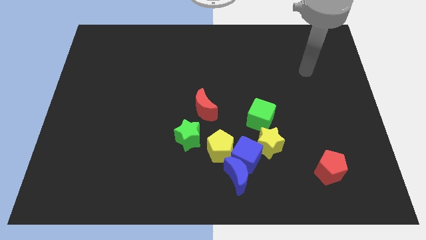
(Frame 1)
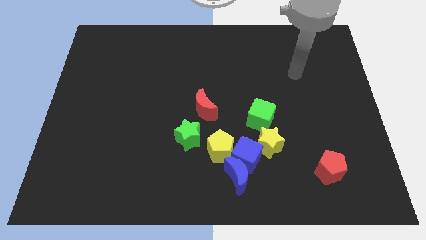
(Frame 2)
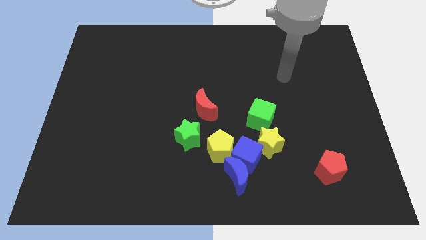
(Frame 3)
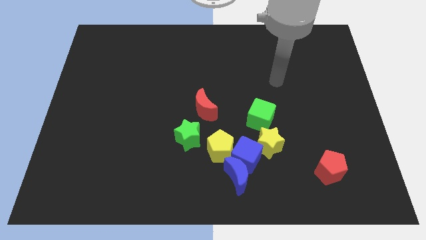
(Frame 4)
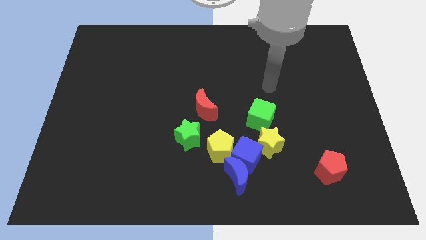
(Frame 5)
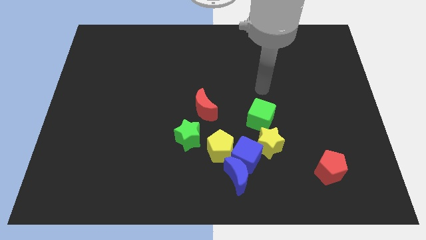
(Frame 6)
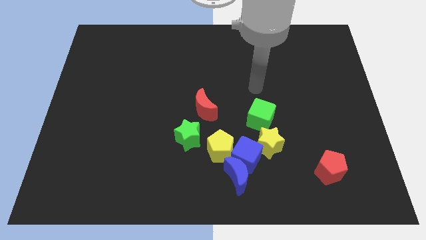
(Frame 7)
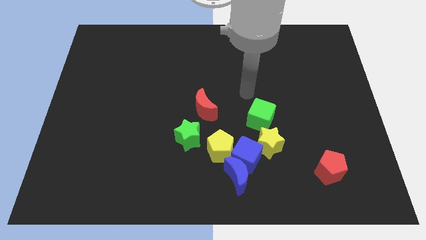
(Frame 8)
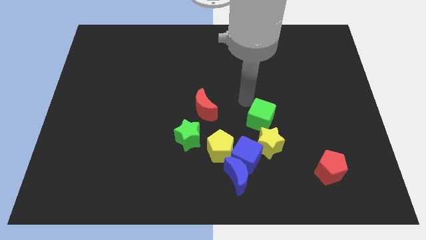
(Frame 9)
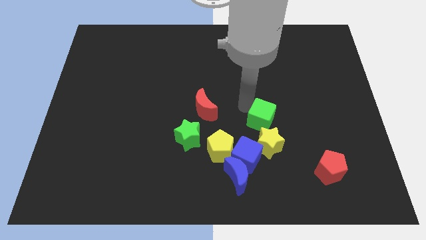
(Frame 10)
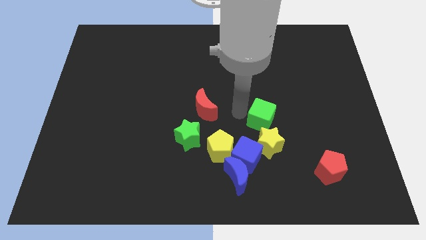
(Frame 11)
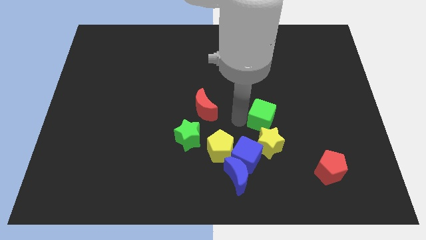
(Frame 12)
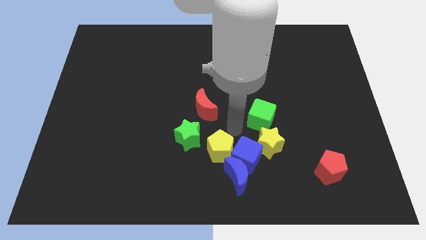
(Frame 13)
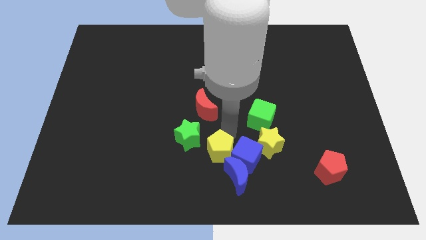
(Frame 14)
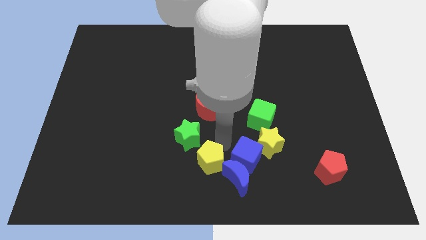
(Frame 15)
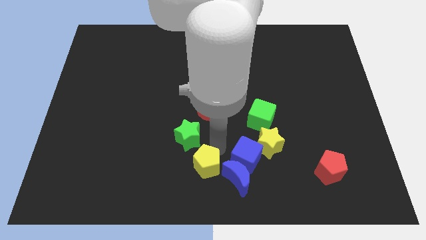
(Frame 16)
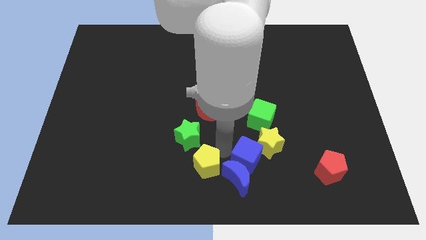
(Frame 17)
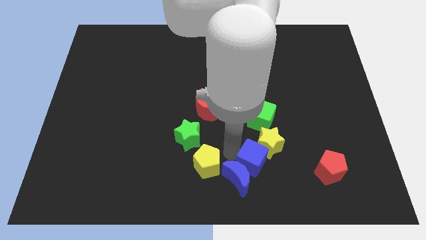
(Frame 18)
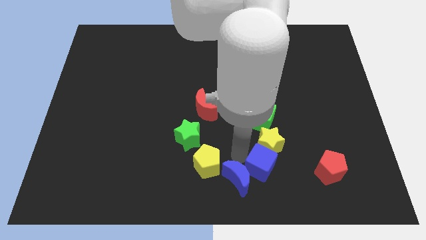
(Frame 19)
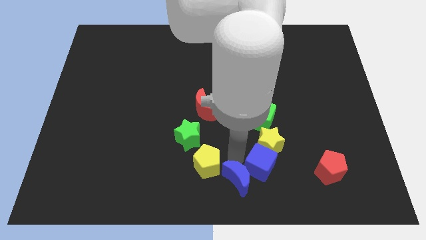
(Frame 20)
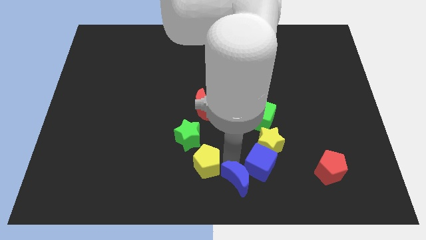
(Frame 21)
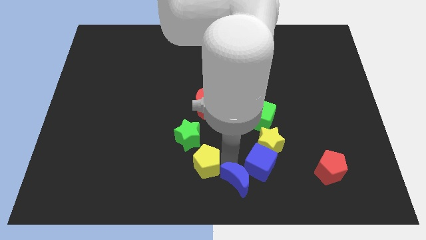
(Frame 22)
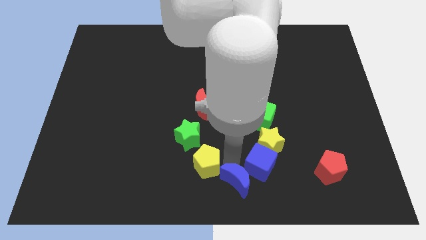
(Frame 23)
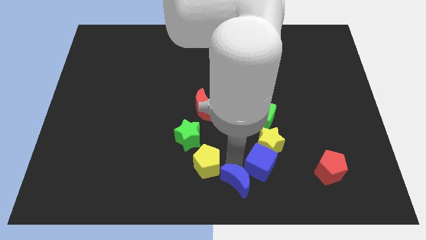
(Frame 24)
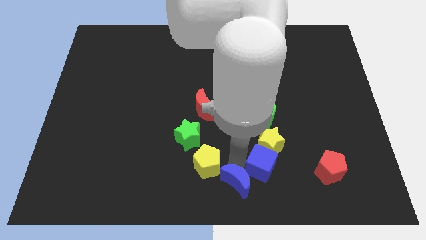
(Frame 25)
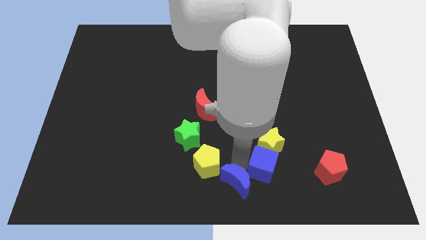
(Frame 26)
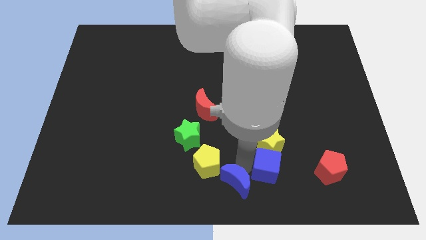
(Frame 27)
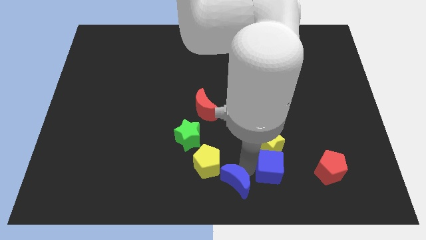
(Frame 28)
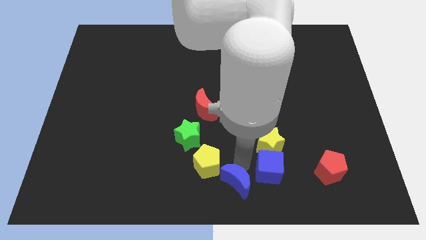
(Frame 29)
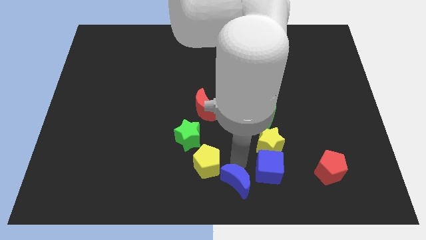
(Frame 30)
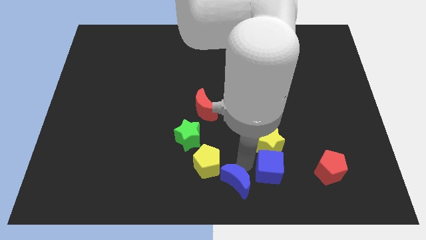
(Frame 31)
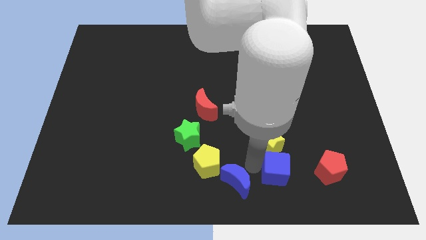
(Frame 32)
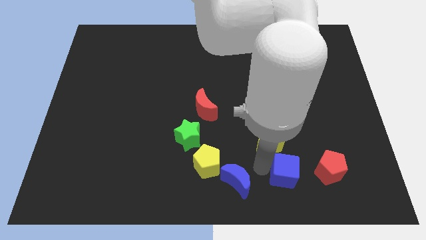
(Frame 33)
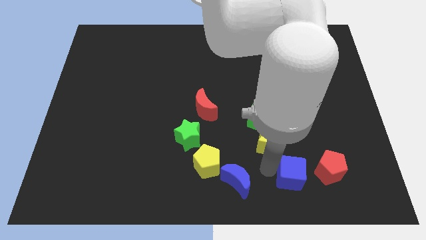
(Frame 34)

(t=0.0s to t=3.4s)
move the blue cube away from the blue moon, yellow pentagon, and yellow star

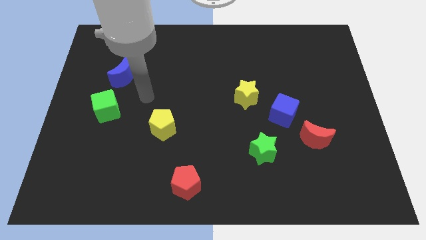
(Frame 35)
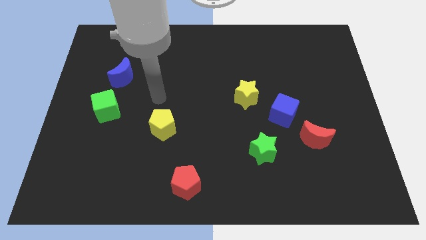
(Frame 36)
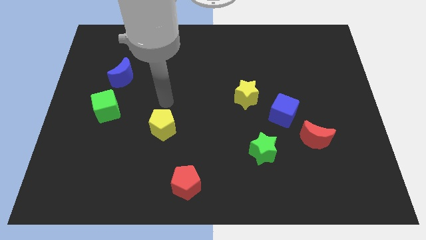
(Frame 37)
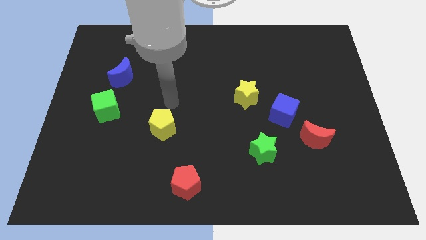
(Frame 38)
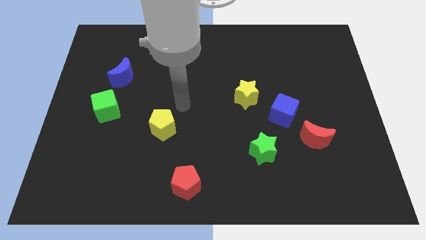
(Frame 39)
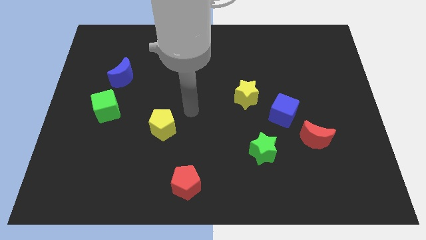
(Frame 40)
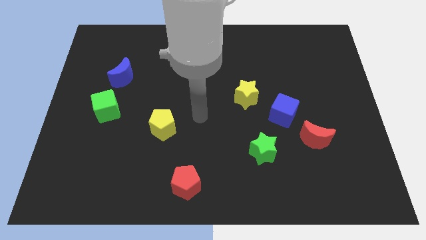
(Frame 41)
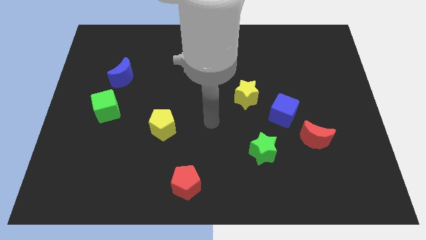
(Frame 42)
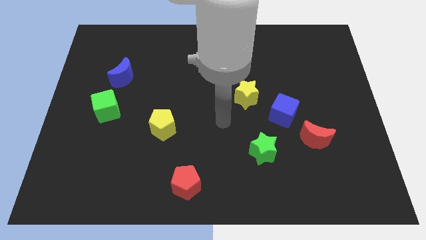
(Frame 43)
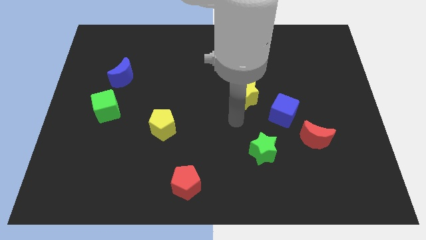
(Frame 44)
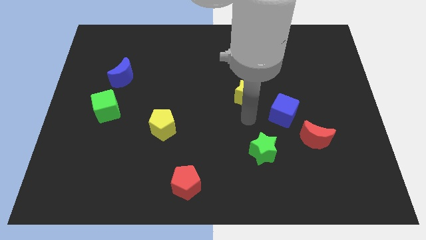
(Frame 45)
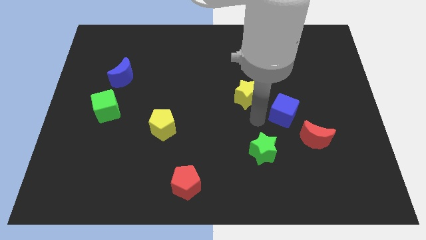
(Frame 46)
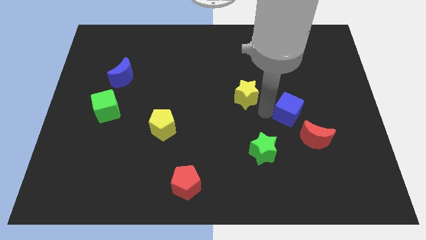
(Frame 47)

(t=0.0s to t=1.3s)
separate the yellow star from the blue cube

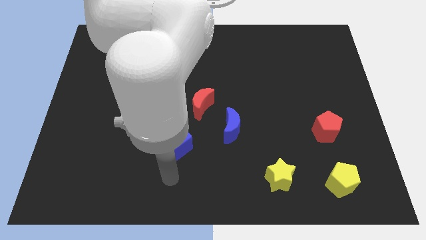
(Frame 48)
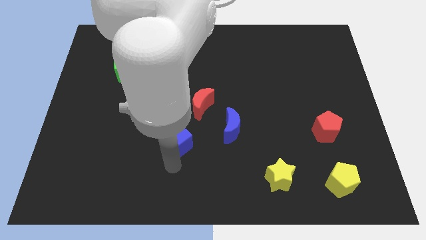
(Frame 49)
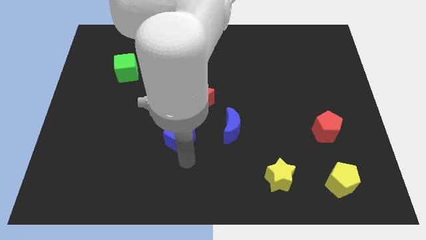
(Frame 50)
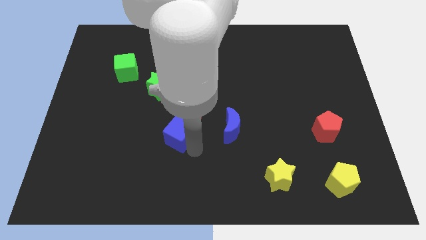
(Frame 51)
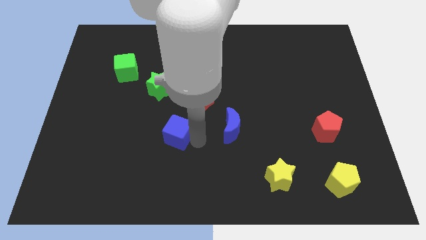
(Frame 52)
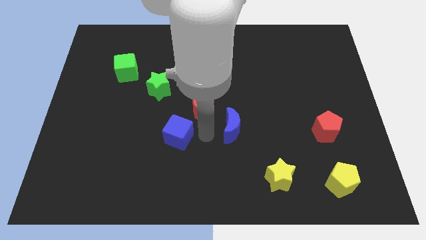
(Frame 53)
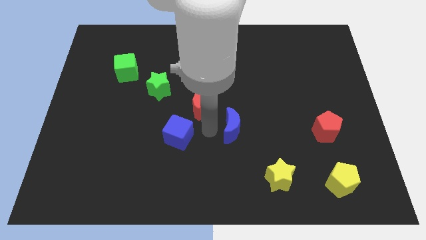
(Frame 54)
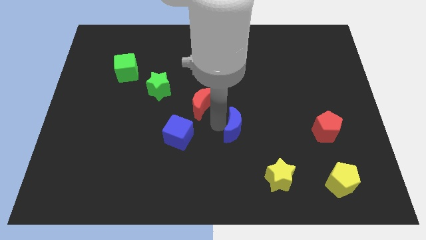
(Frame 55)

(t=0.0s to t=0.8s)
pull the red moon apart from the blue moon

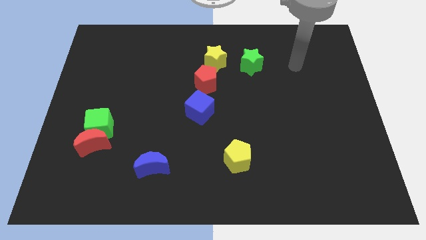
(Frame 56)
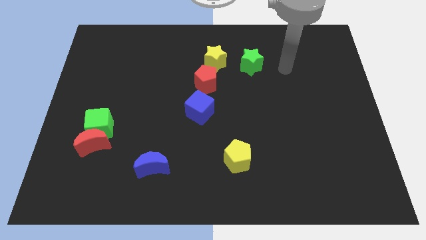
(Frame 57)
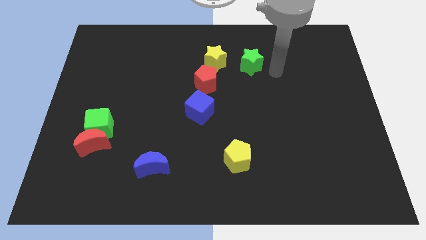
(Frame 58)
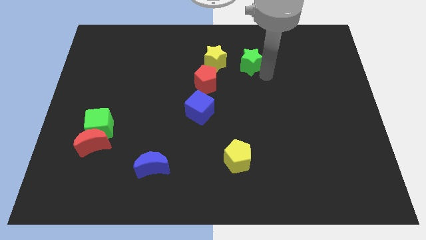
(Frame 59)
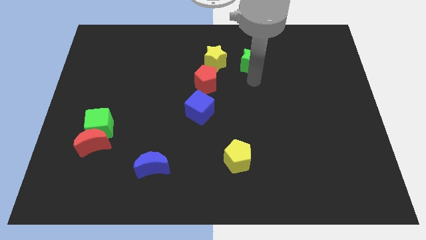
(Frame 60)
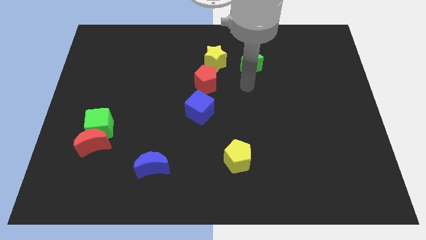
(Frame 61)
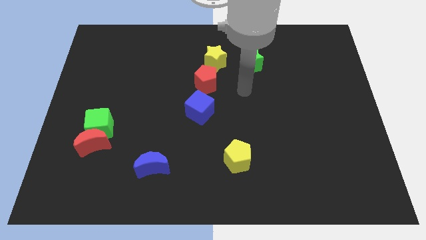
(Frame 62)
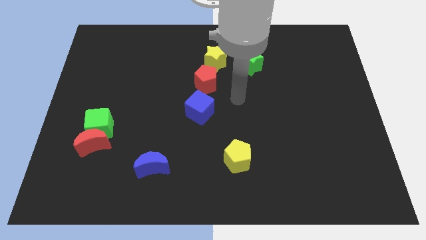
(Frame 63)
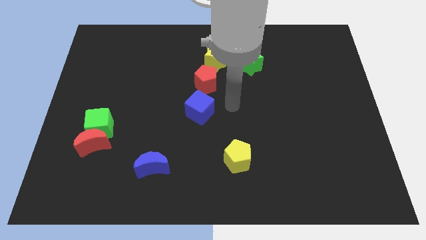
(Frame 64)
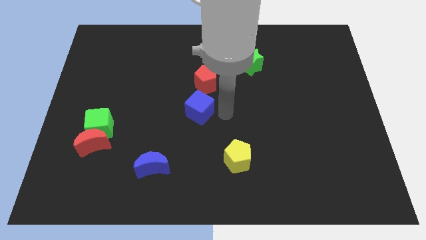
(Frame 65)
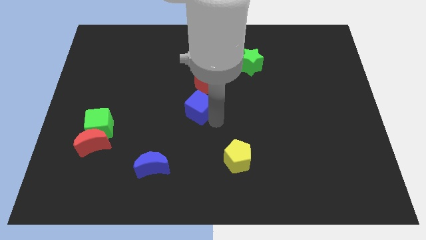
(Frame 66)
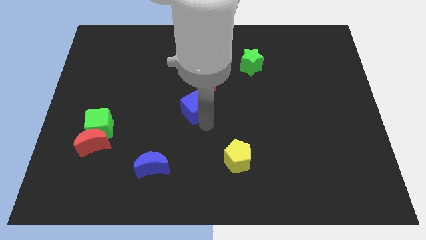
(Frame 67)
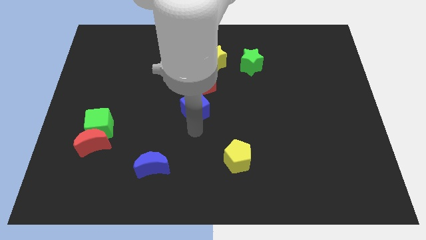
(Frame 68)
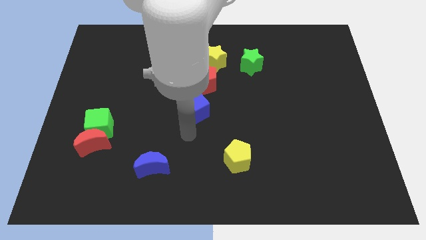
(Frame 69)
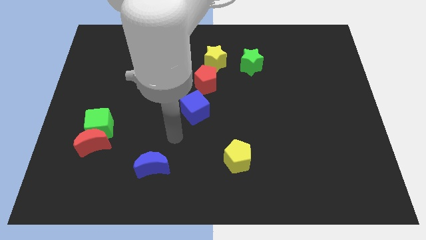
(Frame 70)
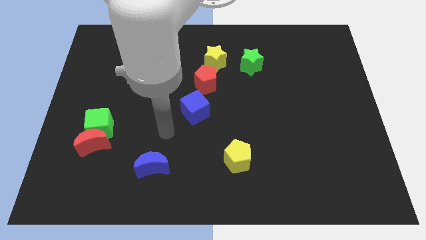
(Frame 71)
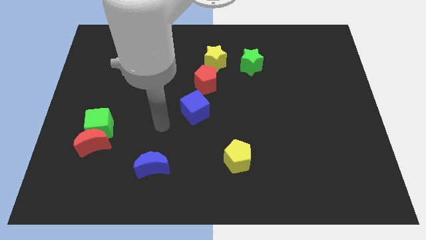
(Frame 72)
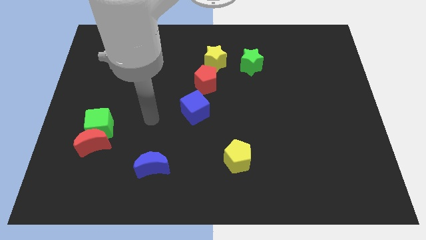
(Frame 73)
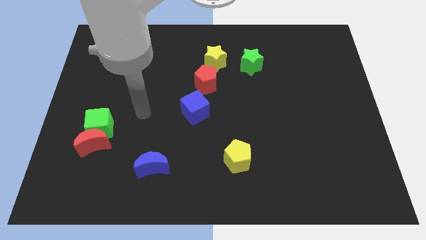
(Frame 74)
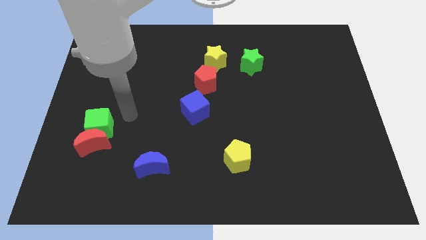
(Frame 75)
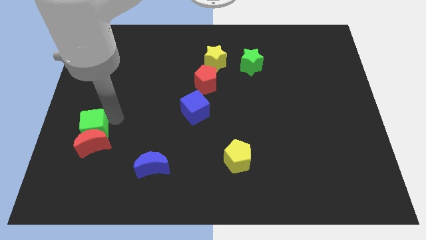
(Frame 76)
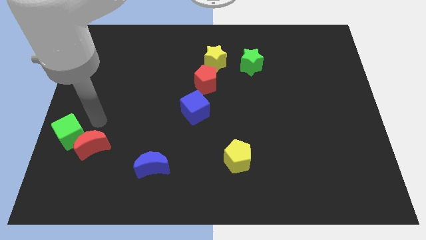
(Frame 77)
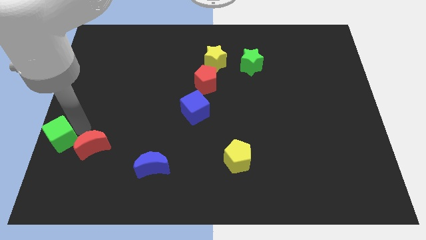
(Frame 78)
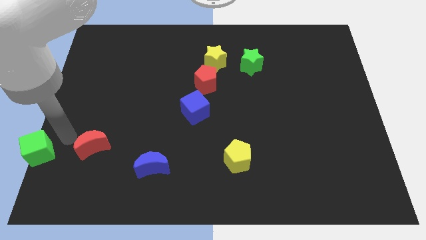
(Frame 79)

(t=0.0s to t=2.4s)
move the red moon away from the green cube

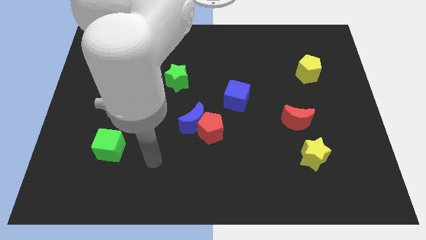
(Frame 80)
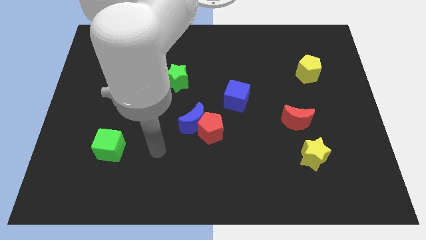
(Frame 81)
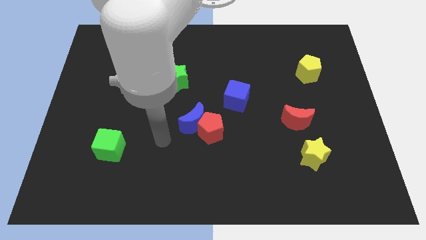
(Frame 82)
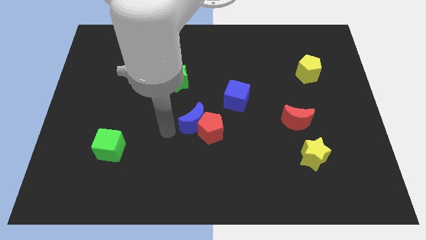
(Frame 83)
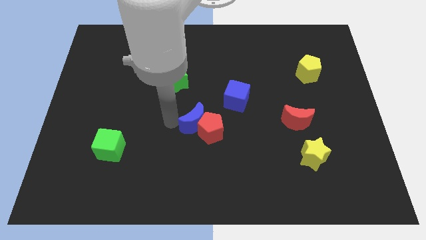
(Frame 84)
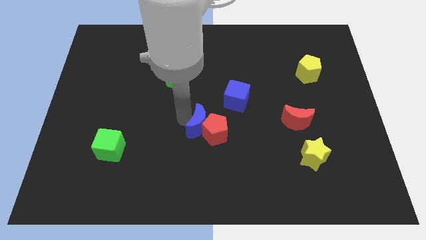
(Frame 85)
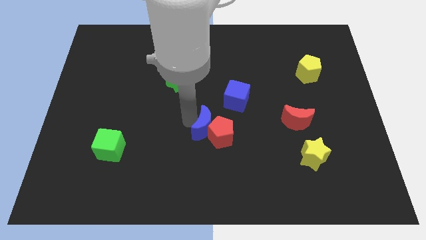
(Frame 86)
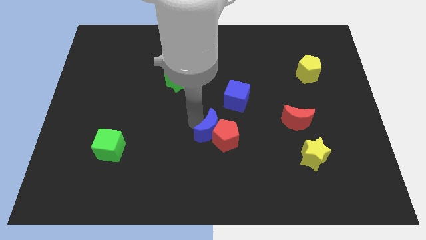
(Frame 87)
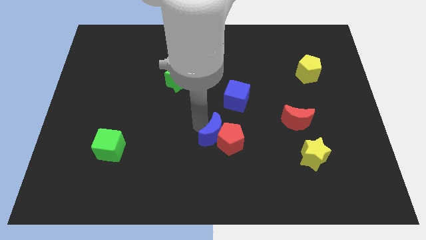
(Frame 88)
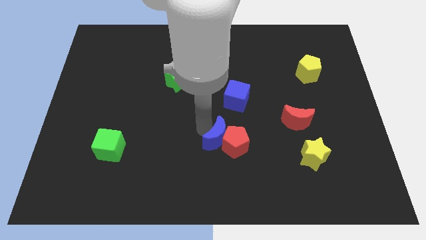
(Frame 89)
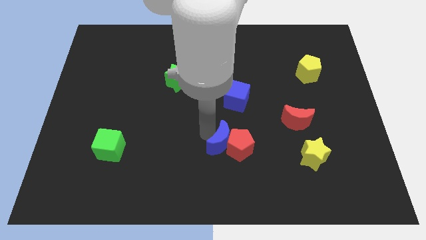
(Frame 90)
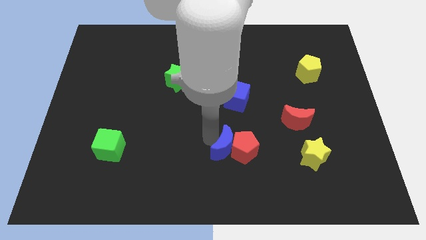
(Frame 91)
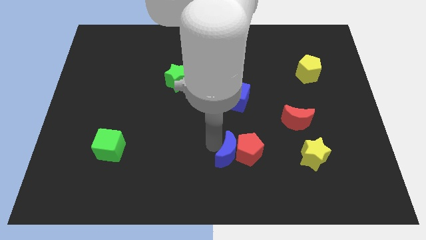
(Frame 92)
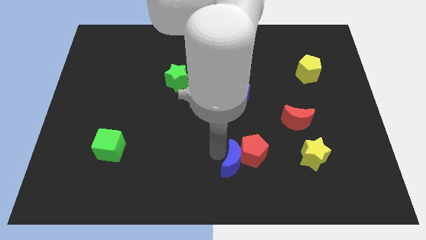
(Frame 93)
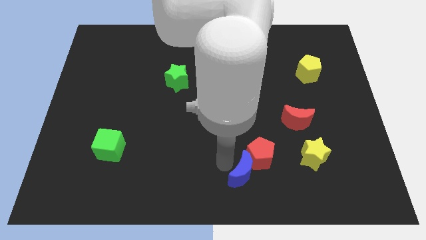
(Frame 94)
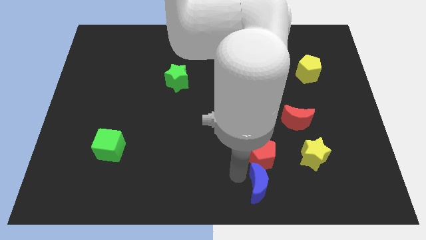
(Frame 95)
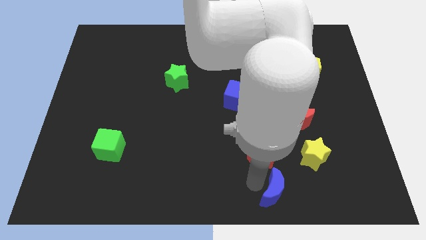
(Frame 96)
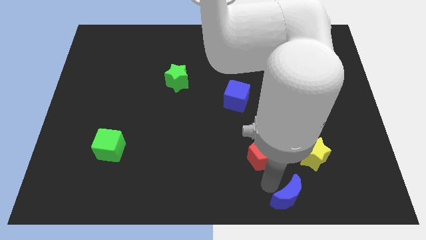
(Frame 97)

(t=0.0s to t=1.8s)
separate the red pentagon from the blue moon
